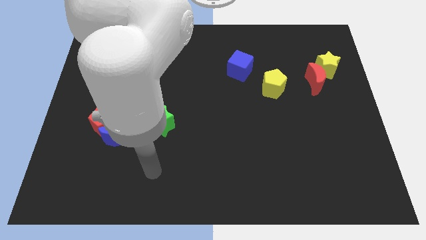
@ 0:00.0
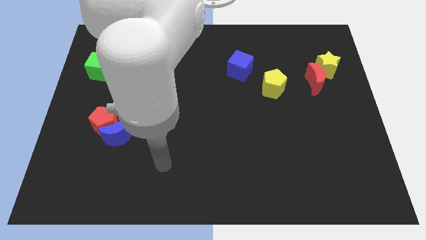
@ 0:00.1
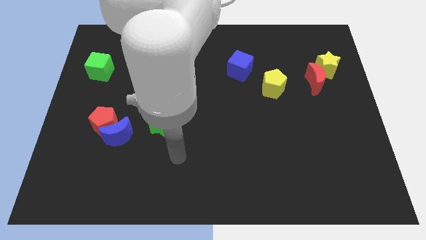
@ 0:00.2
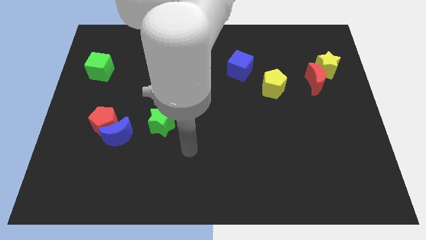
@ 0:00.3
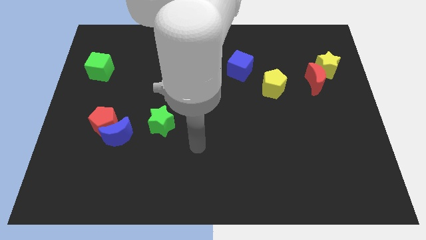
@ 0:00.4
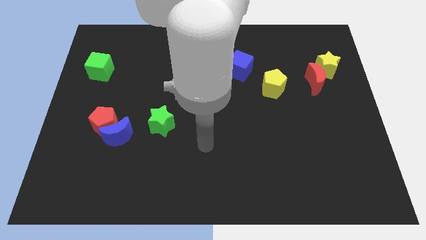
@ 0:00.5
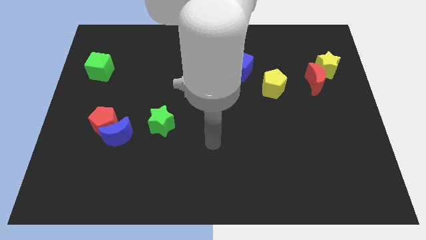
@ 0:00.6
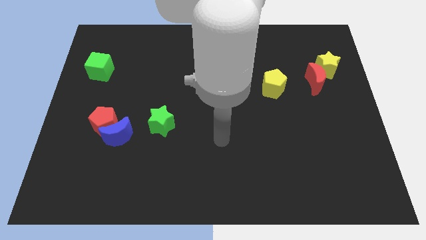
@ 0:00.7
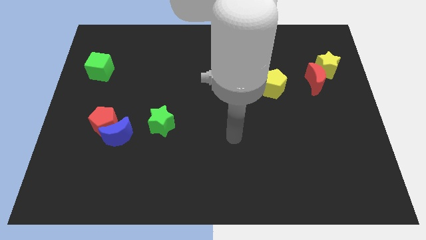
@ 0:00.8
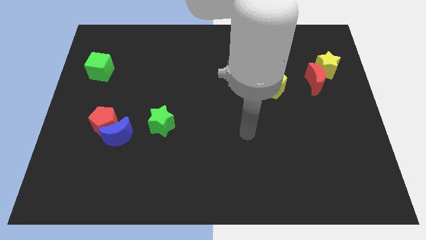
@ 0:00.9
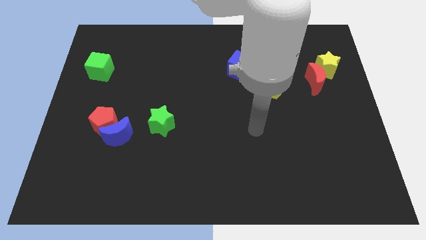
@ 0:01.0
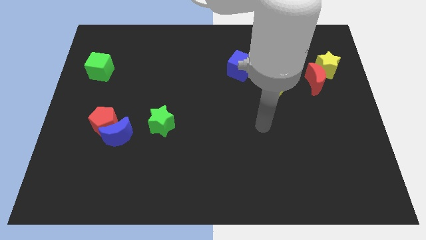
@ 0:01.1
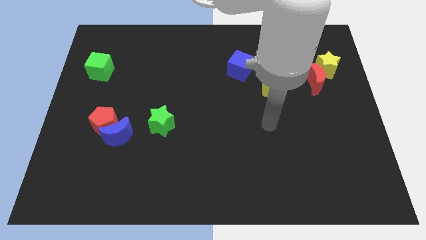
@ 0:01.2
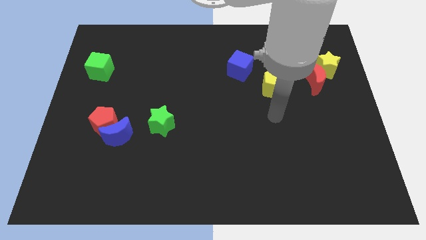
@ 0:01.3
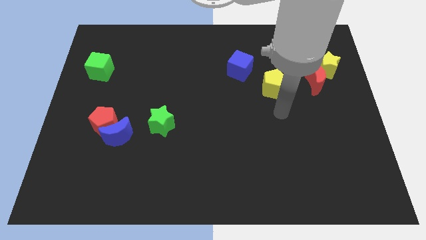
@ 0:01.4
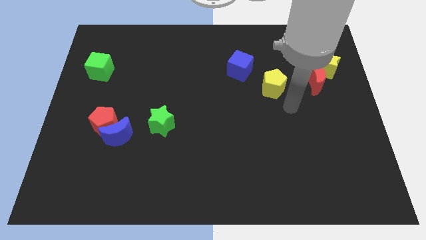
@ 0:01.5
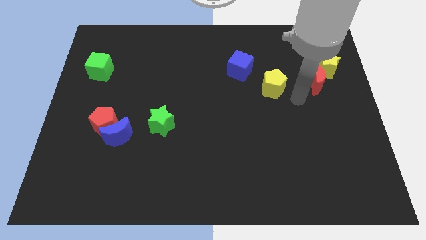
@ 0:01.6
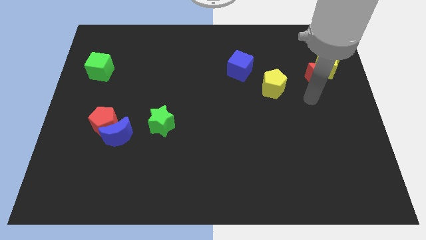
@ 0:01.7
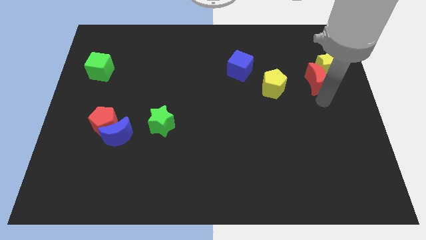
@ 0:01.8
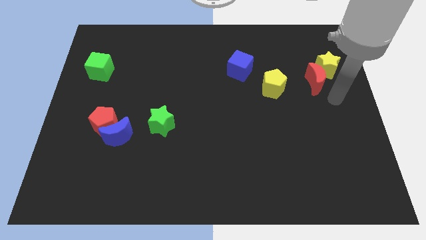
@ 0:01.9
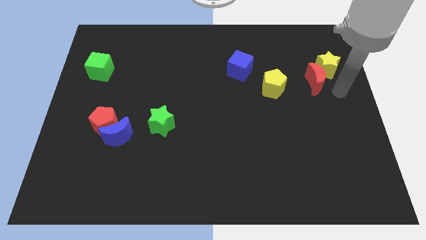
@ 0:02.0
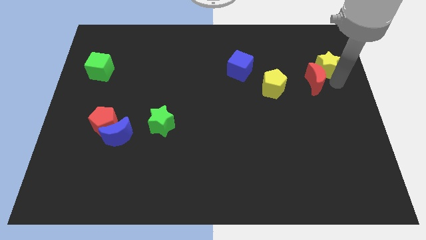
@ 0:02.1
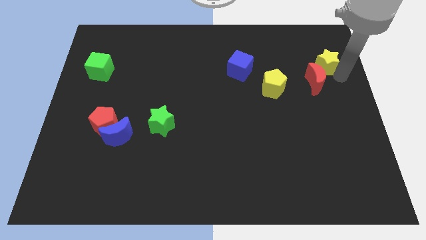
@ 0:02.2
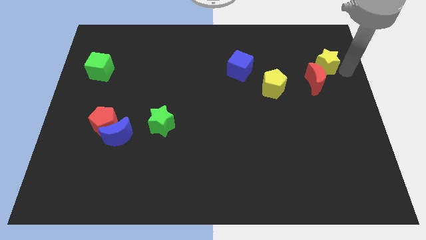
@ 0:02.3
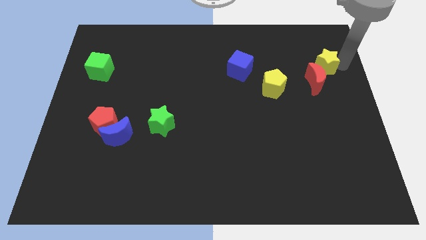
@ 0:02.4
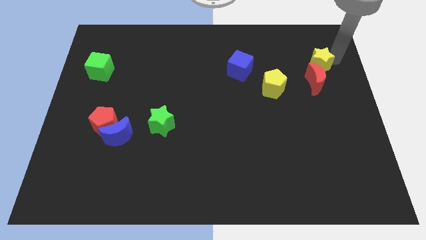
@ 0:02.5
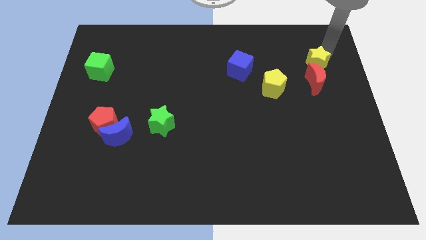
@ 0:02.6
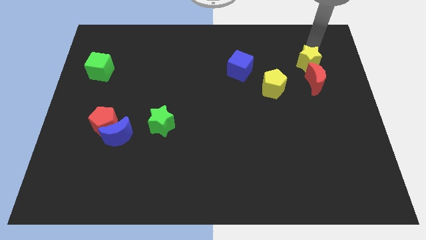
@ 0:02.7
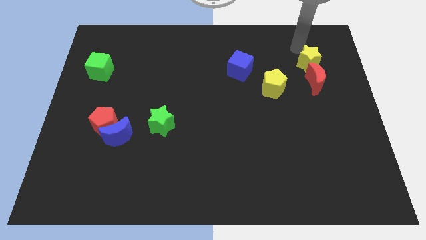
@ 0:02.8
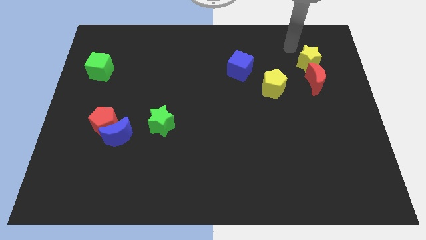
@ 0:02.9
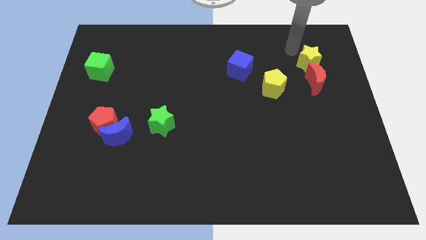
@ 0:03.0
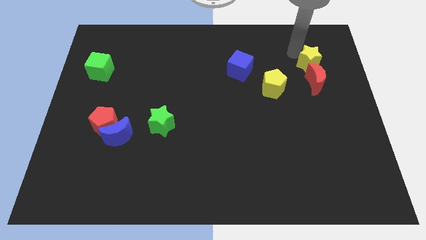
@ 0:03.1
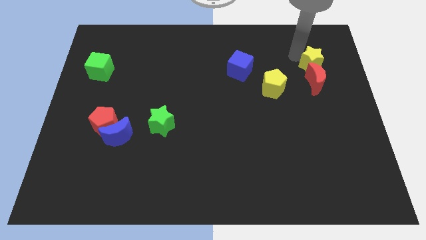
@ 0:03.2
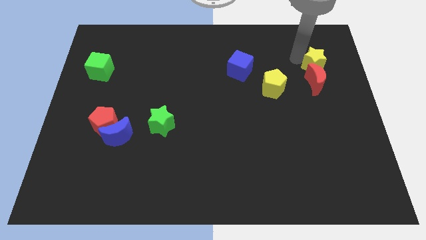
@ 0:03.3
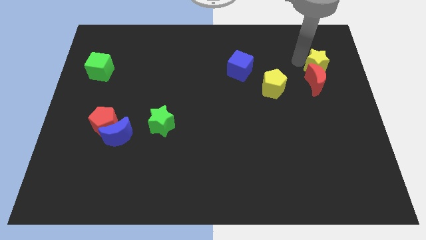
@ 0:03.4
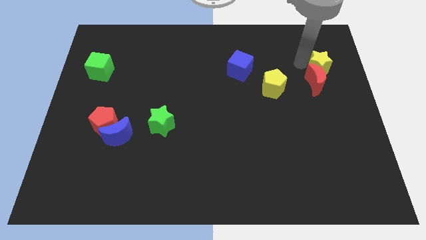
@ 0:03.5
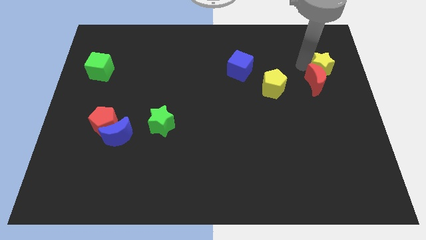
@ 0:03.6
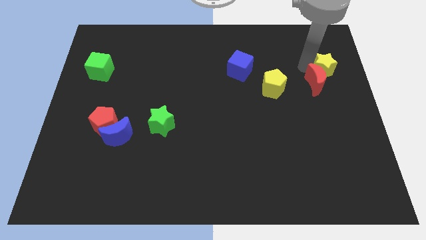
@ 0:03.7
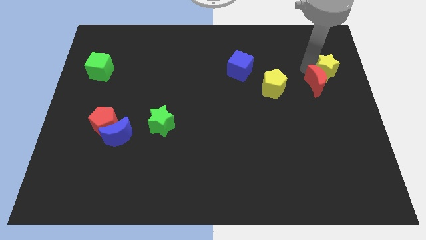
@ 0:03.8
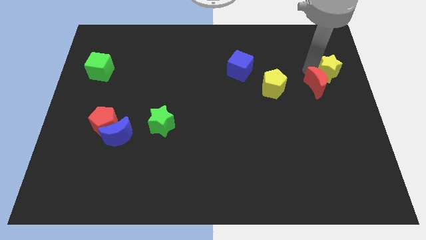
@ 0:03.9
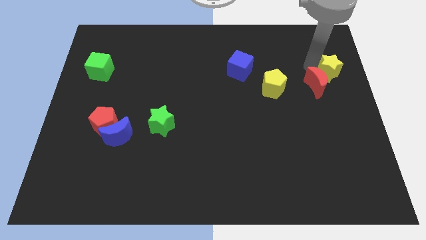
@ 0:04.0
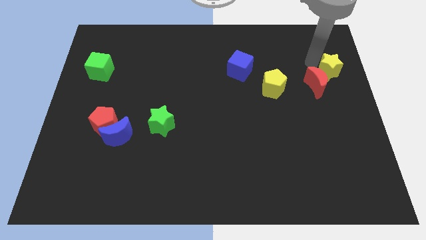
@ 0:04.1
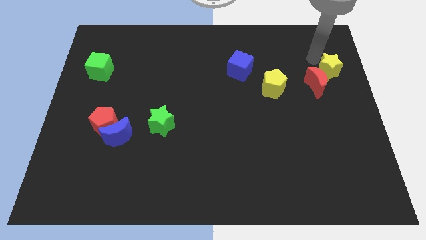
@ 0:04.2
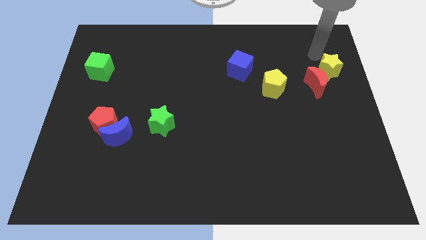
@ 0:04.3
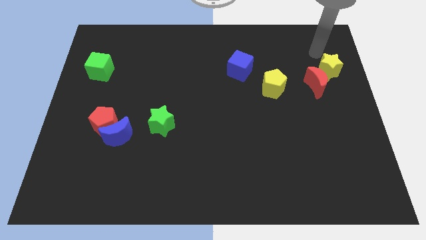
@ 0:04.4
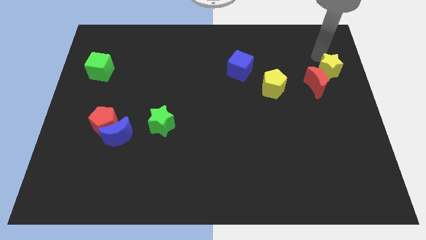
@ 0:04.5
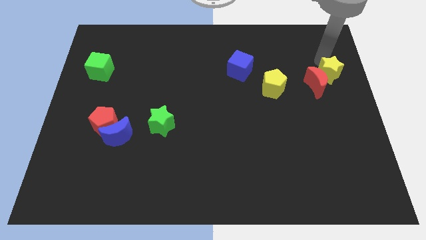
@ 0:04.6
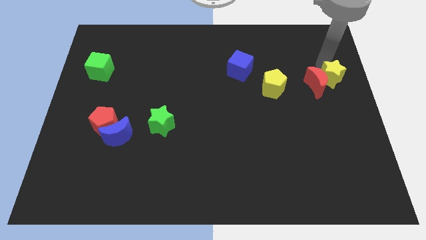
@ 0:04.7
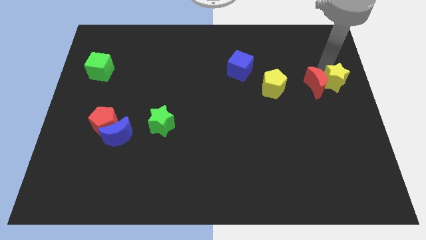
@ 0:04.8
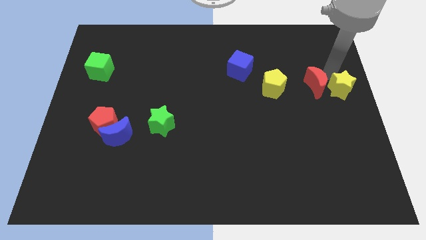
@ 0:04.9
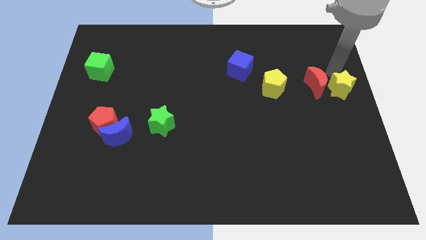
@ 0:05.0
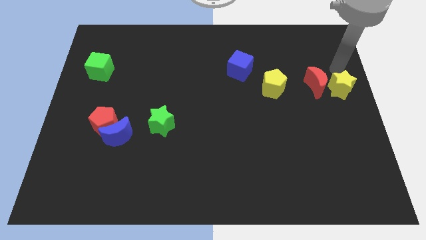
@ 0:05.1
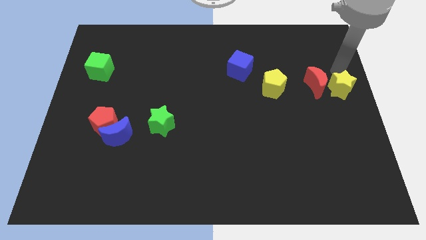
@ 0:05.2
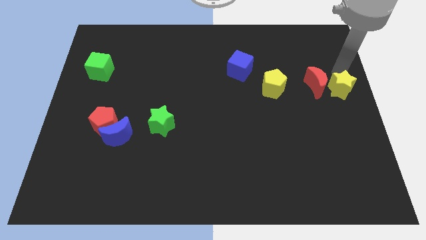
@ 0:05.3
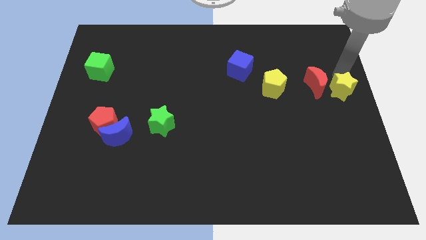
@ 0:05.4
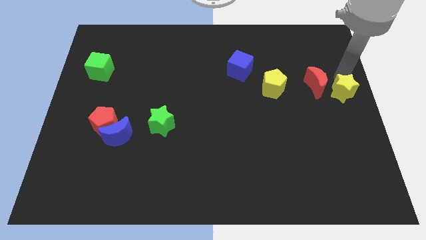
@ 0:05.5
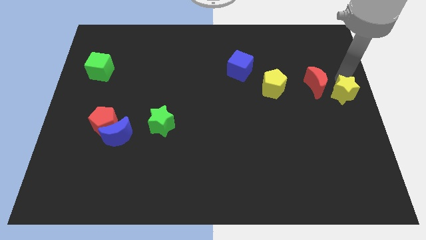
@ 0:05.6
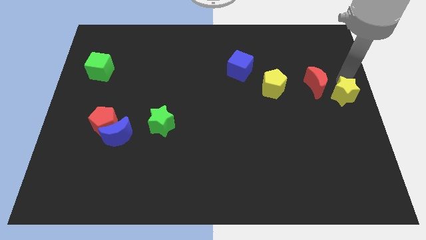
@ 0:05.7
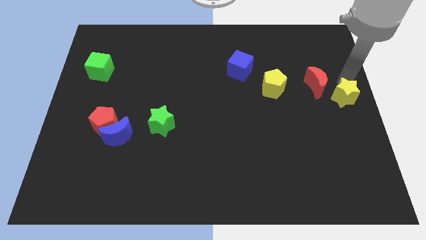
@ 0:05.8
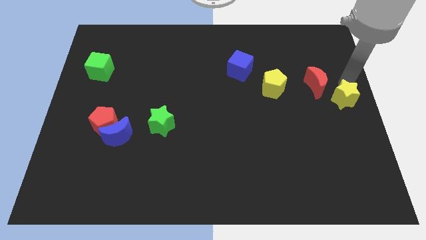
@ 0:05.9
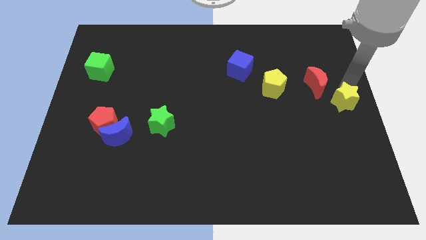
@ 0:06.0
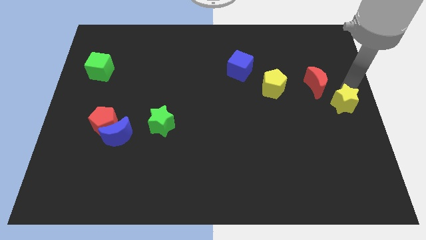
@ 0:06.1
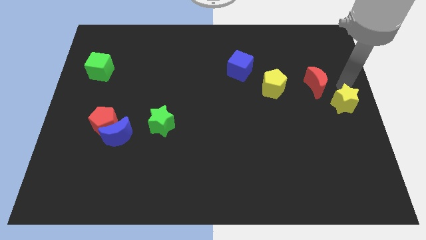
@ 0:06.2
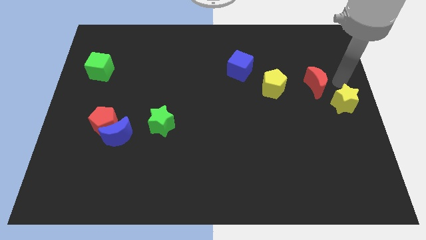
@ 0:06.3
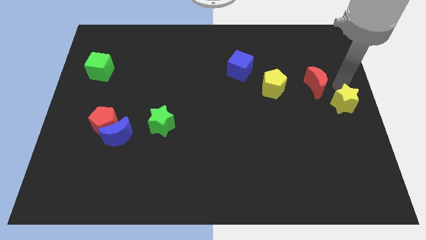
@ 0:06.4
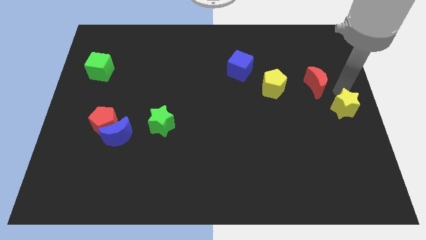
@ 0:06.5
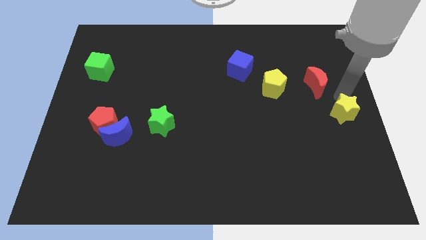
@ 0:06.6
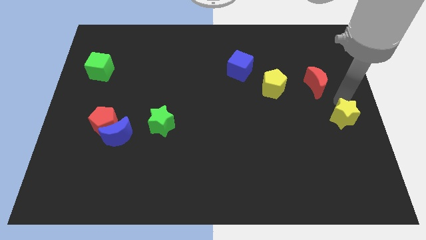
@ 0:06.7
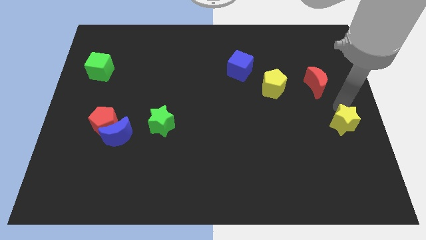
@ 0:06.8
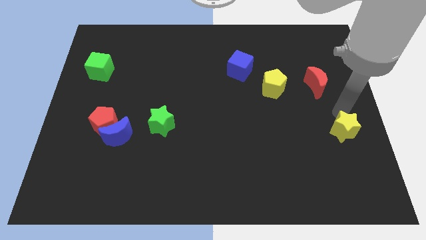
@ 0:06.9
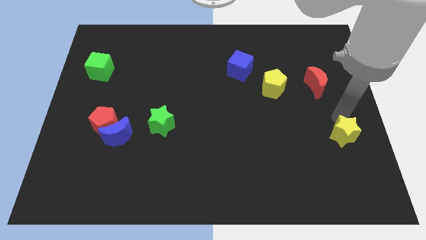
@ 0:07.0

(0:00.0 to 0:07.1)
push the yellow star down

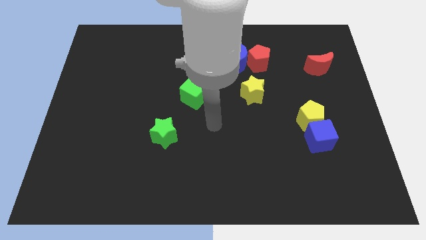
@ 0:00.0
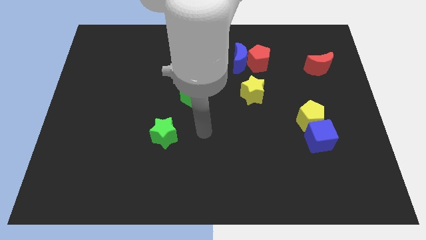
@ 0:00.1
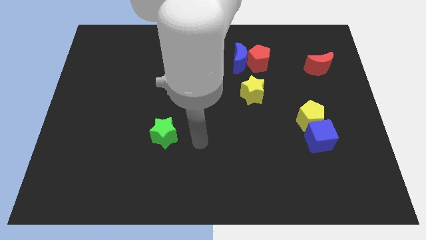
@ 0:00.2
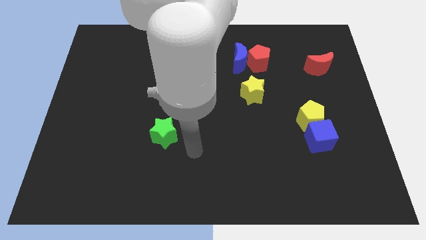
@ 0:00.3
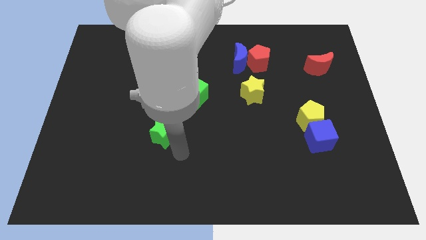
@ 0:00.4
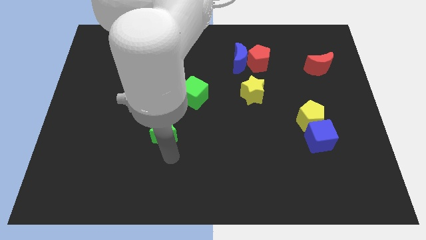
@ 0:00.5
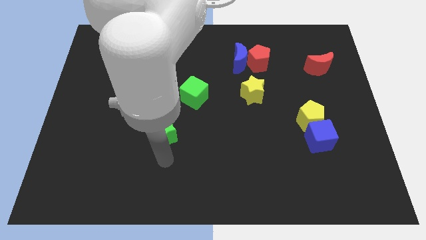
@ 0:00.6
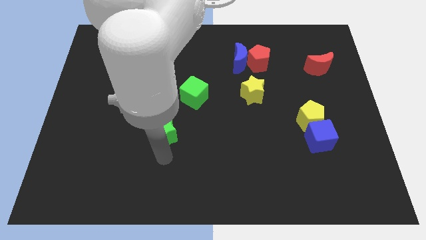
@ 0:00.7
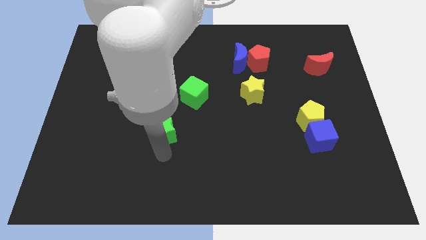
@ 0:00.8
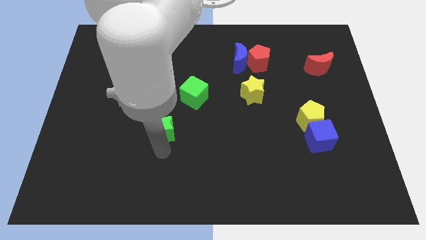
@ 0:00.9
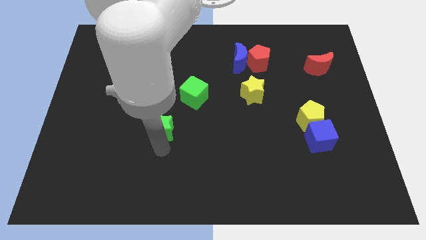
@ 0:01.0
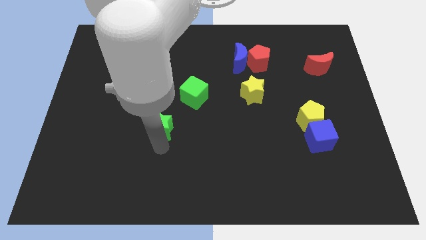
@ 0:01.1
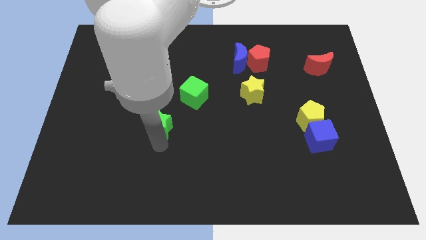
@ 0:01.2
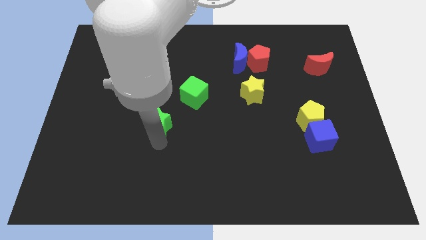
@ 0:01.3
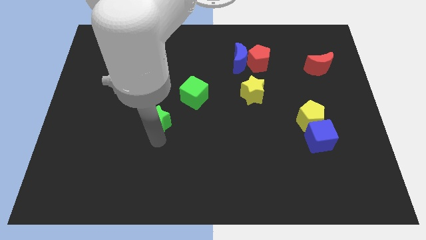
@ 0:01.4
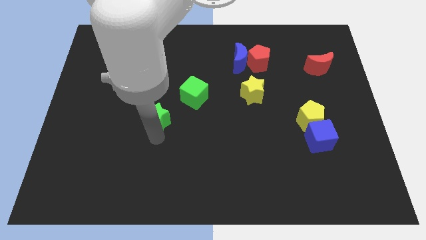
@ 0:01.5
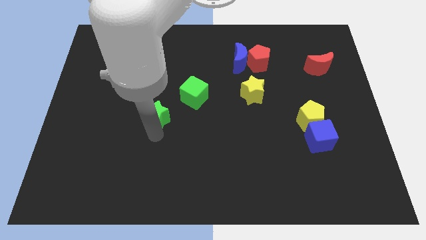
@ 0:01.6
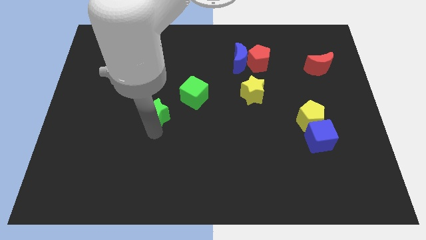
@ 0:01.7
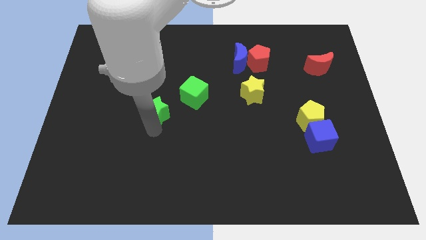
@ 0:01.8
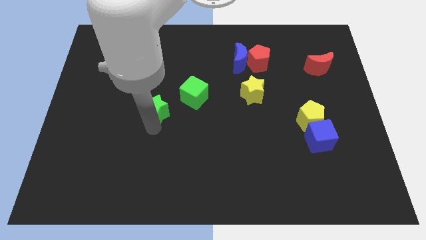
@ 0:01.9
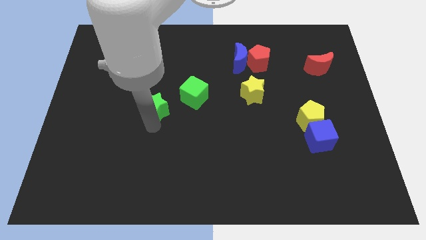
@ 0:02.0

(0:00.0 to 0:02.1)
move the green star up a little bit
